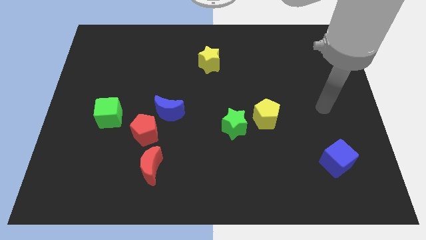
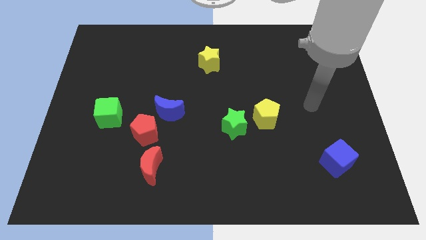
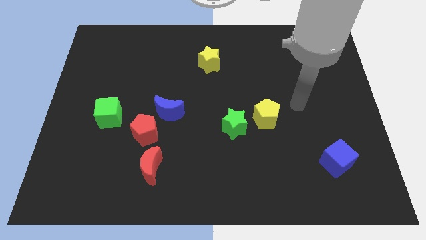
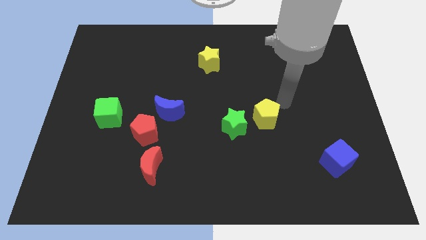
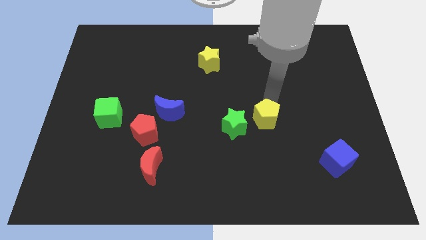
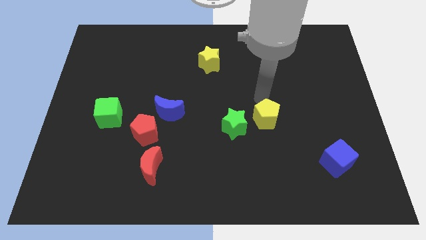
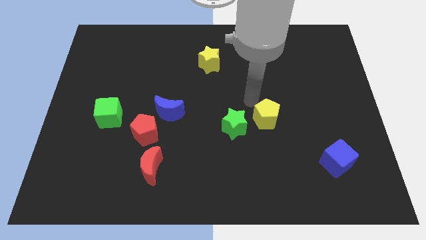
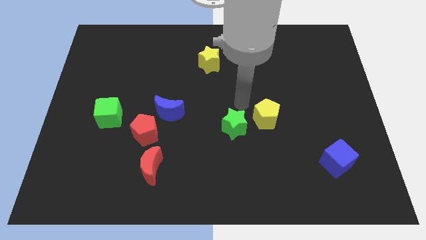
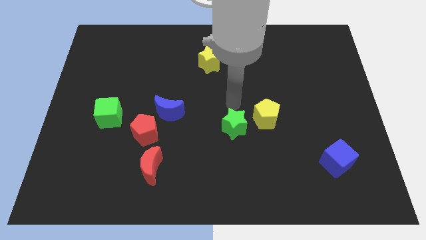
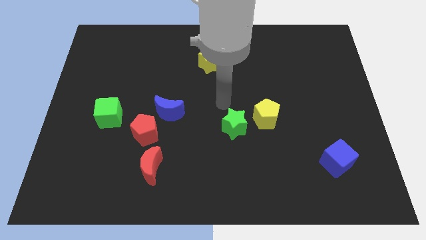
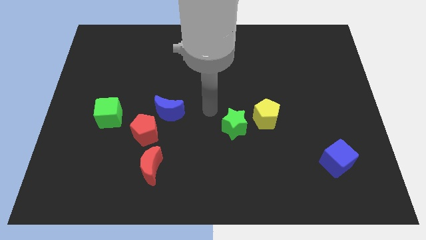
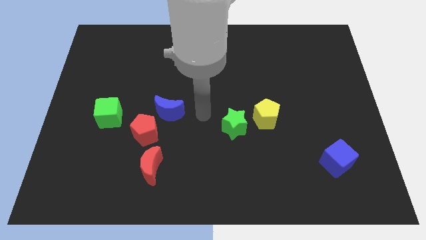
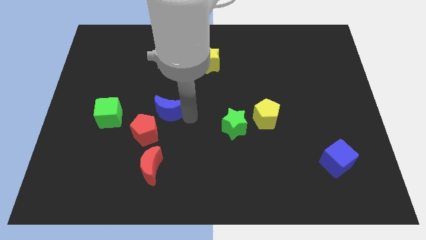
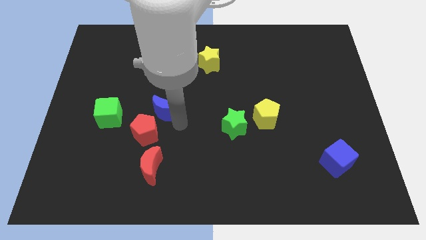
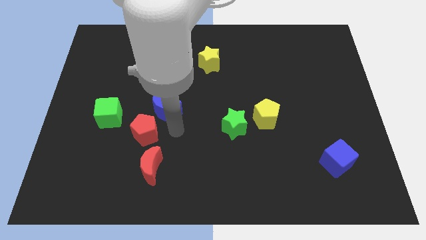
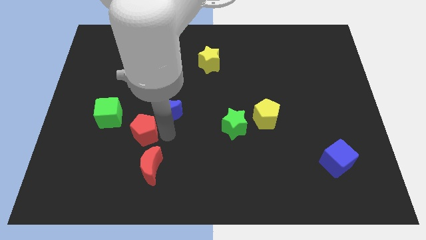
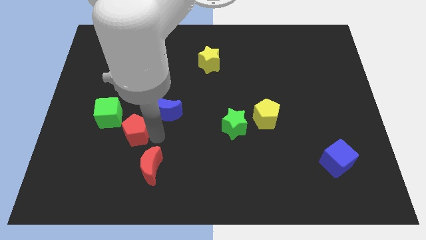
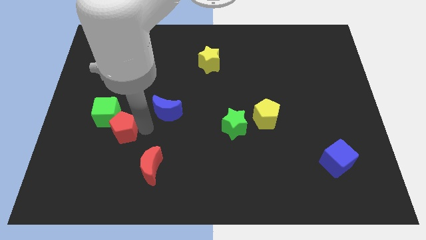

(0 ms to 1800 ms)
move the blue moon away from the red pentagon

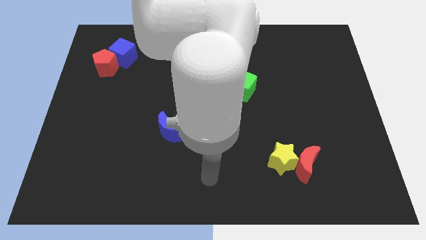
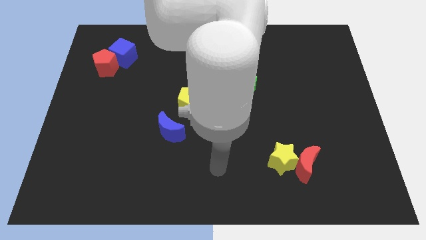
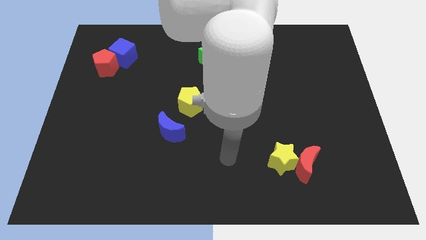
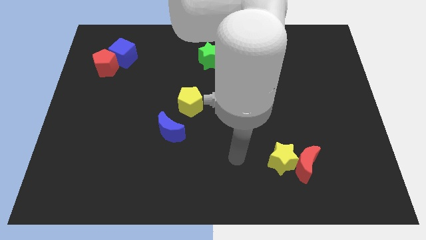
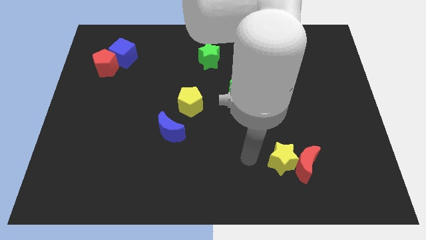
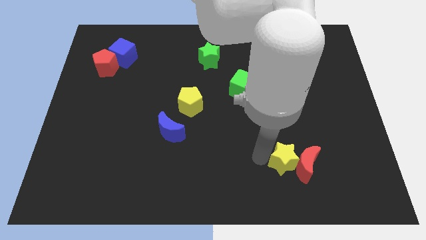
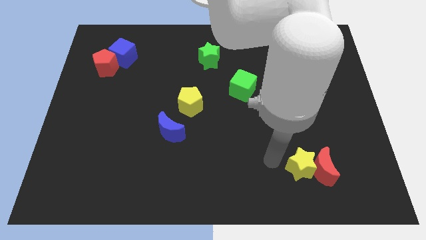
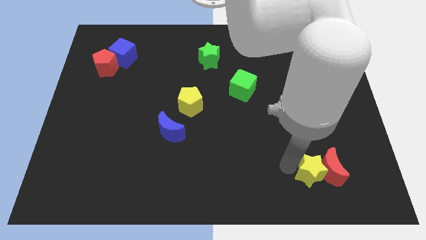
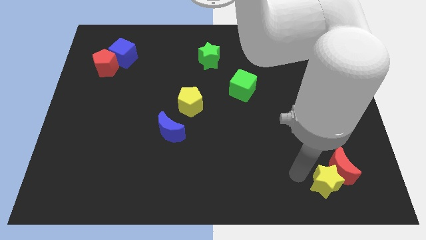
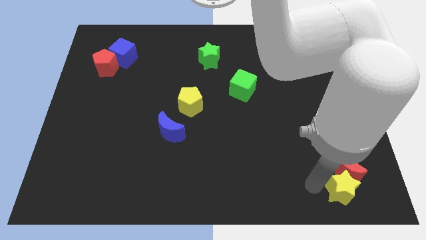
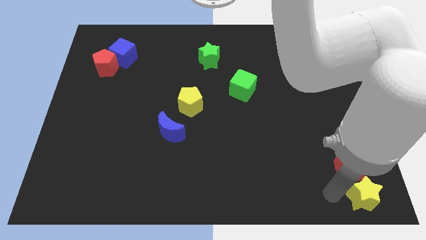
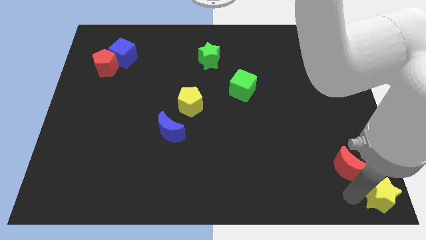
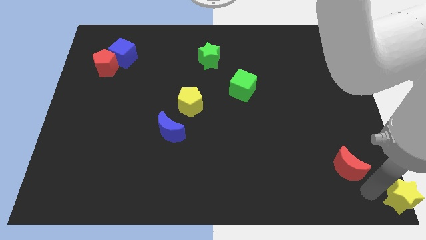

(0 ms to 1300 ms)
pull the red moon apart from the yellow star

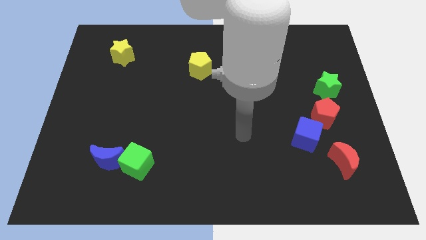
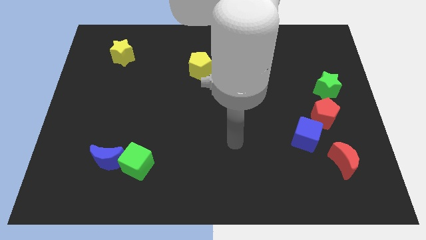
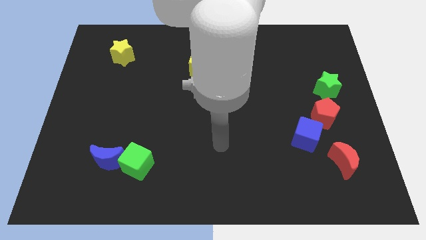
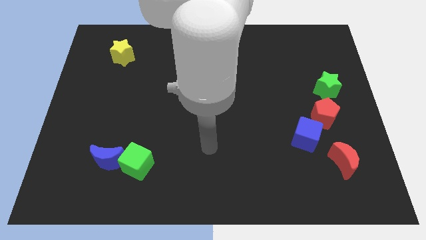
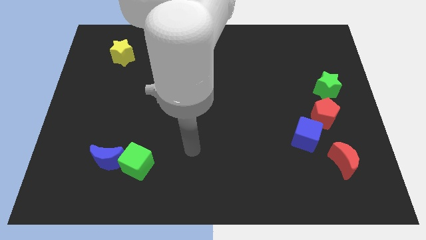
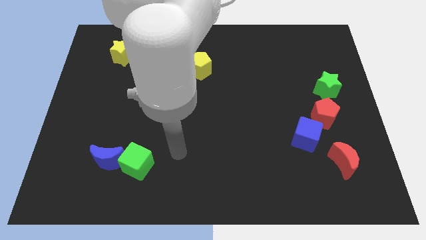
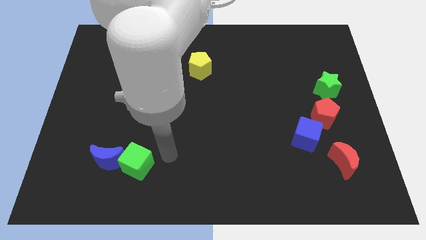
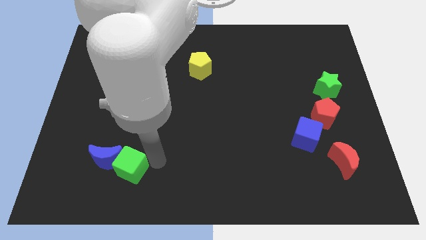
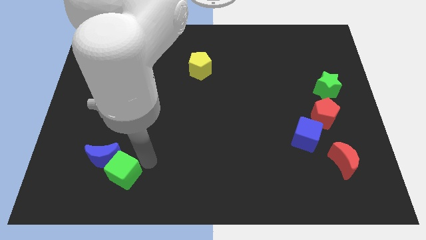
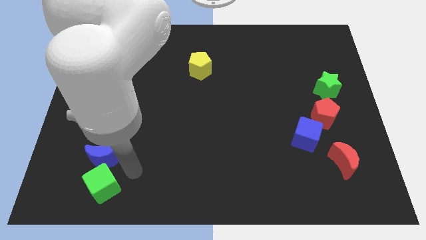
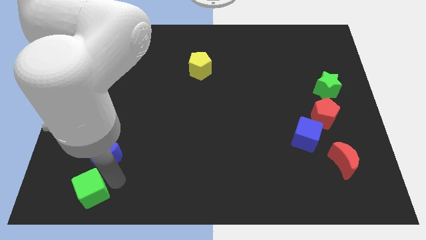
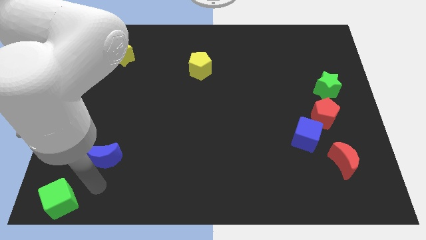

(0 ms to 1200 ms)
separate the blue moon from the green cube

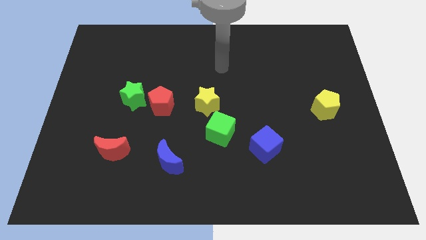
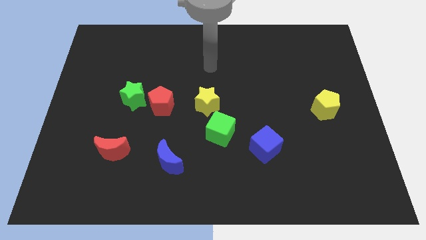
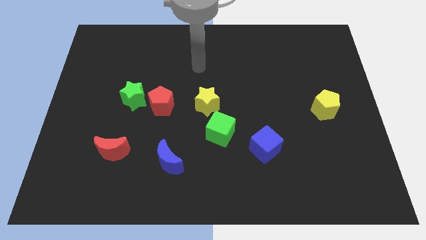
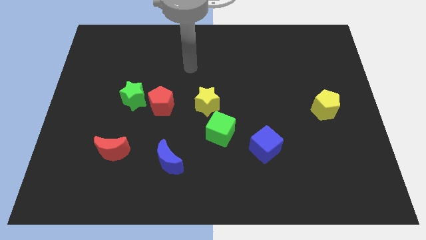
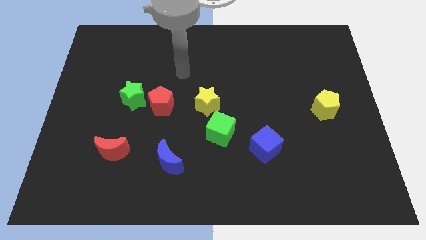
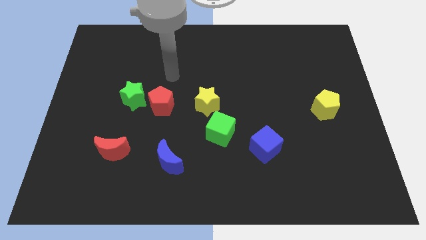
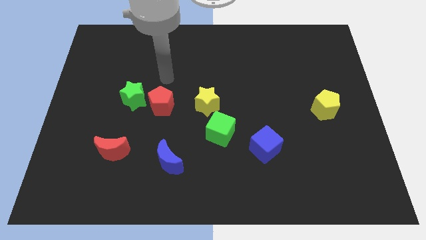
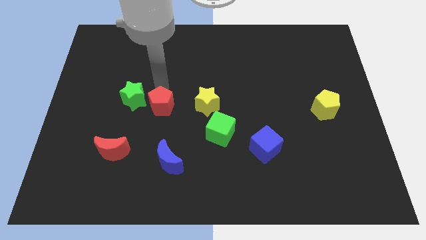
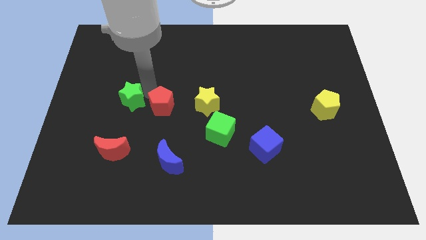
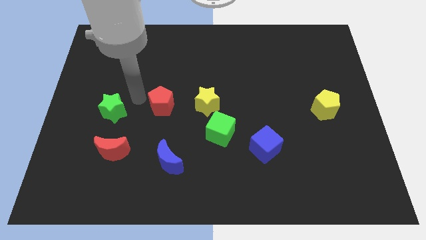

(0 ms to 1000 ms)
separate the red pentagon from the green star

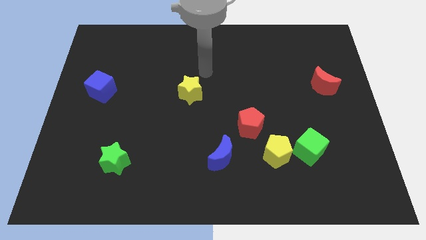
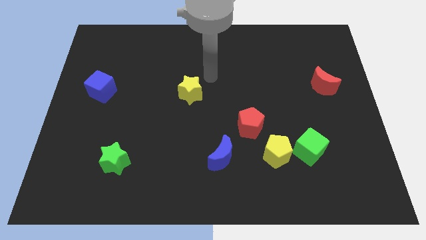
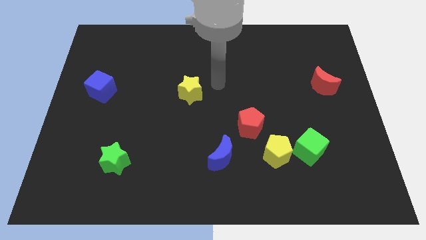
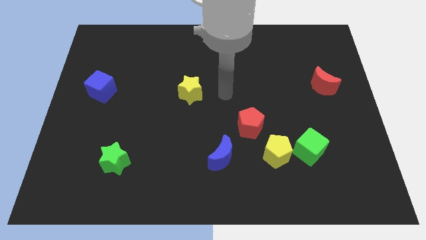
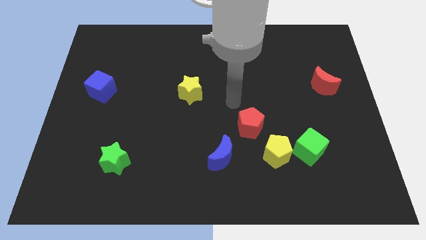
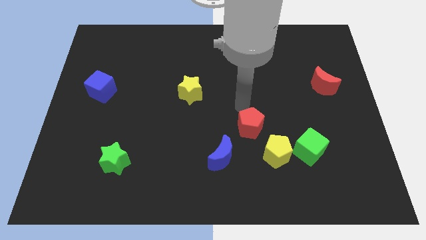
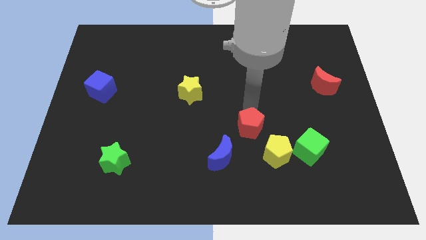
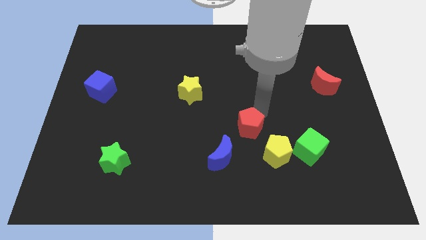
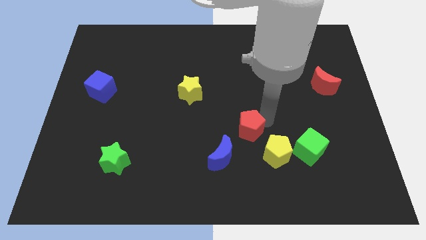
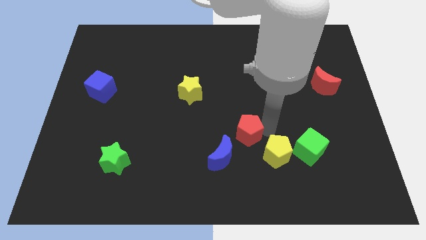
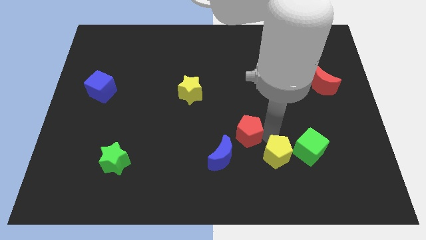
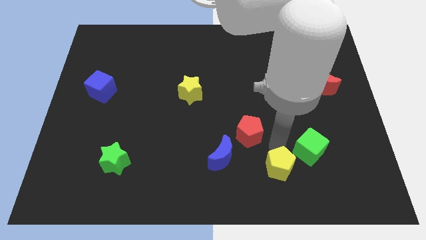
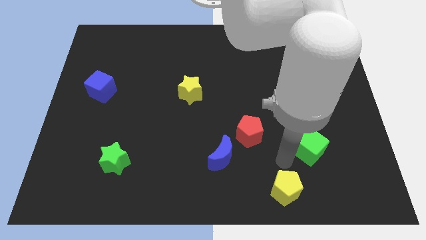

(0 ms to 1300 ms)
move the green cube away from the yellow pentagon

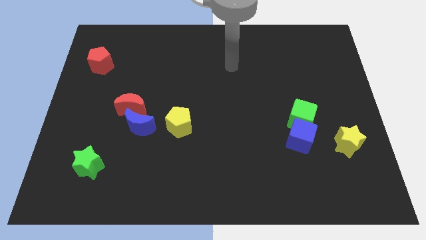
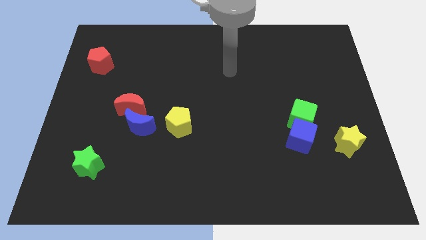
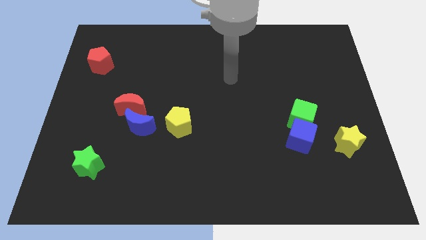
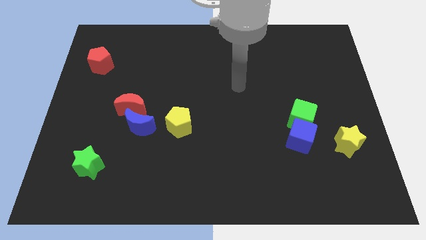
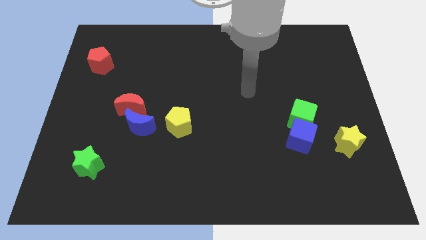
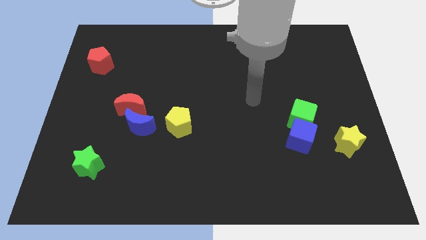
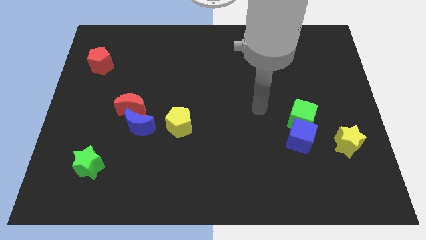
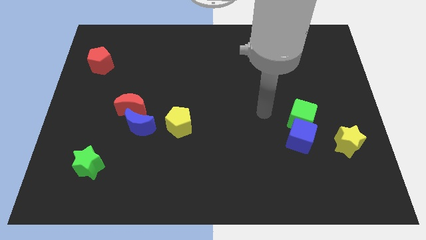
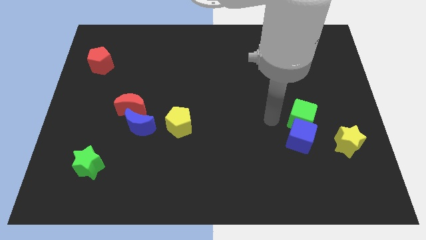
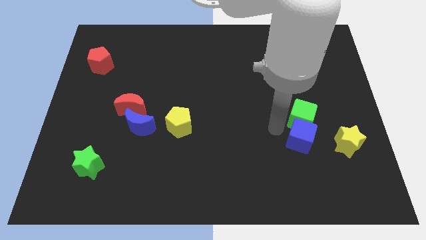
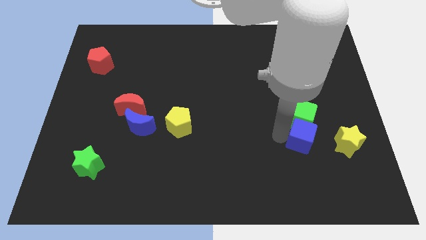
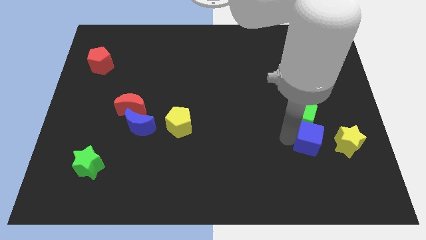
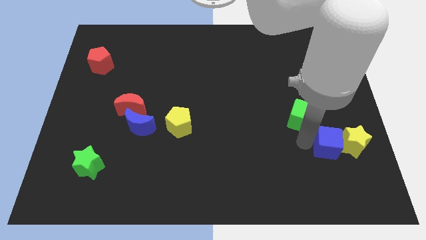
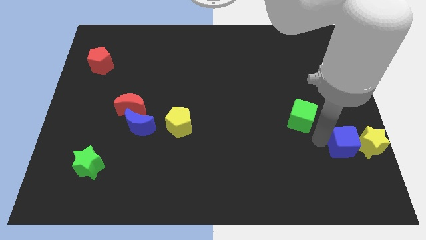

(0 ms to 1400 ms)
separate the green cube from the blue cube

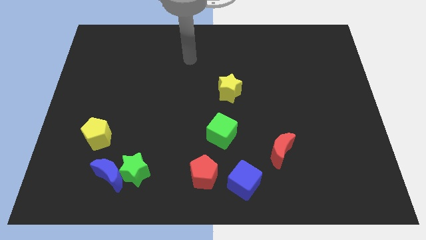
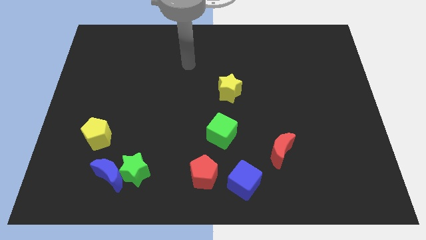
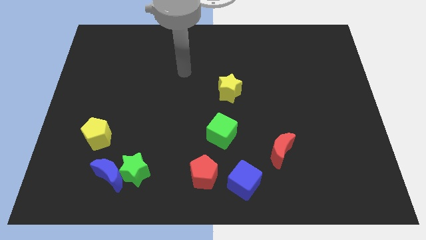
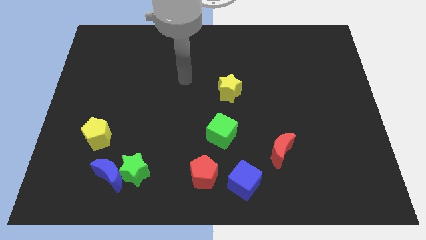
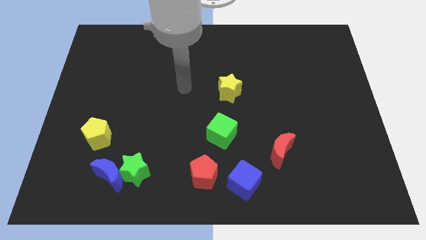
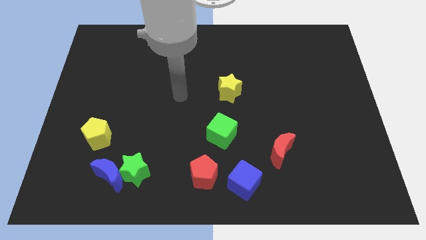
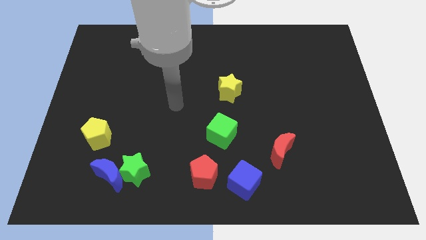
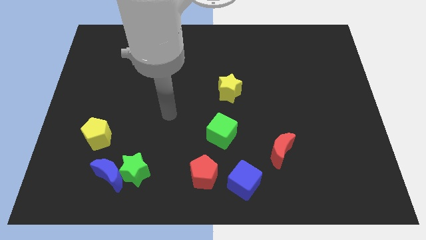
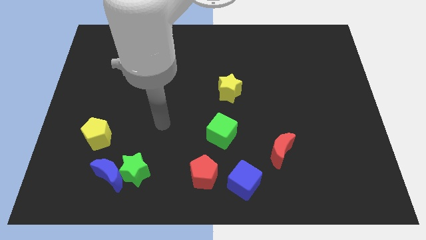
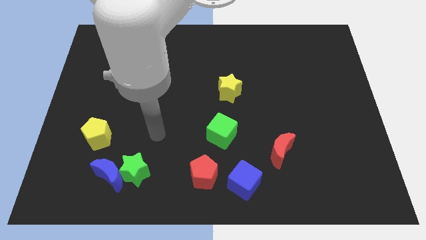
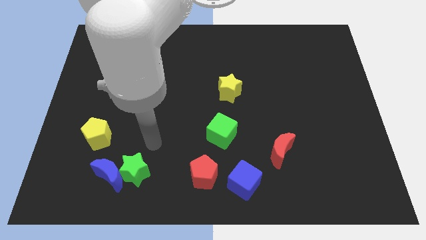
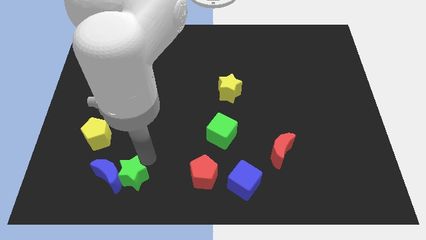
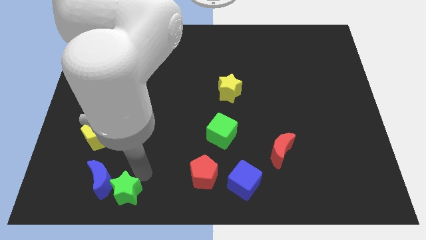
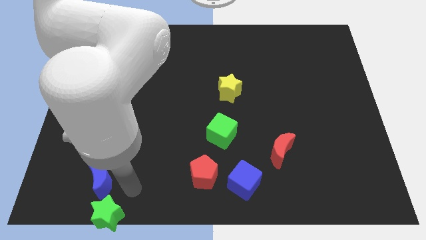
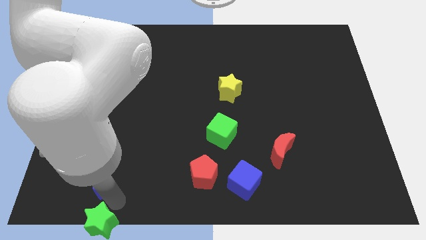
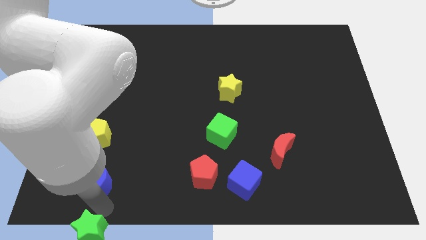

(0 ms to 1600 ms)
separate the blue moon from the green star
